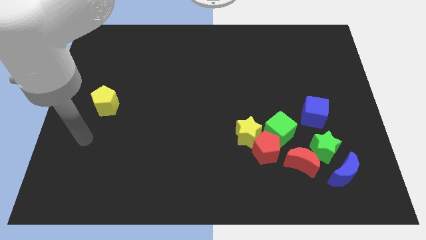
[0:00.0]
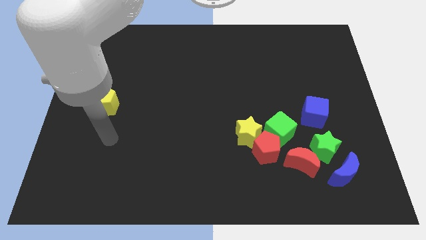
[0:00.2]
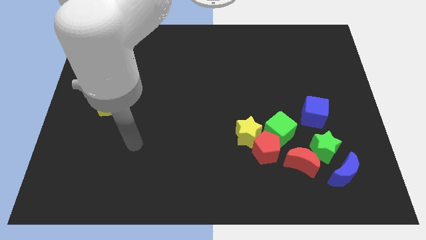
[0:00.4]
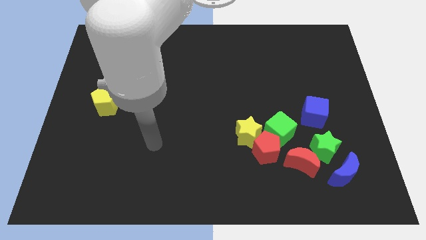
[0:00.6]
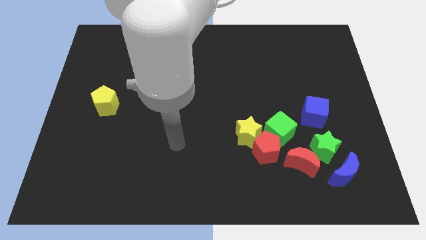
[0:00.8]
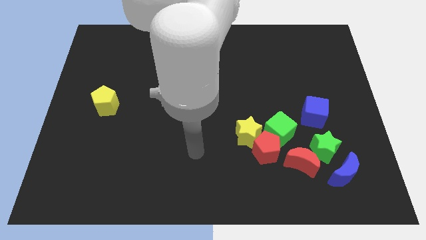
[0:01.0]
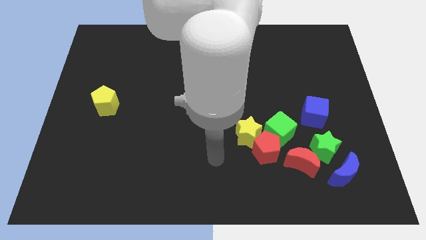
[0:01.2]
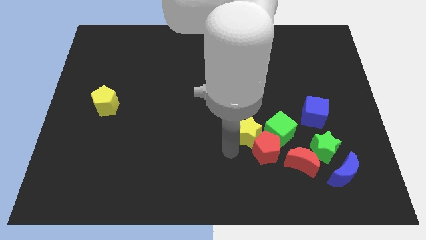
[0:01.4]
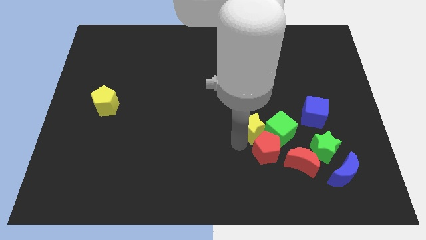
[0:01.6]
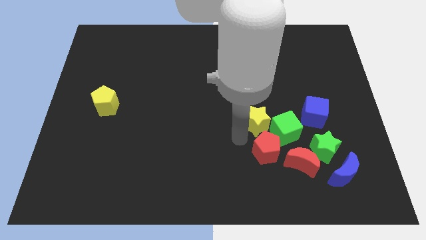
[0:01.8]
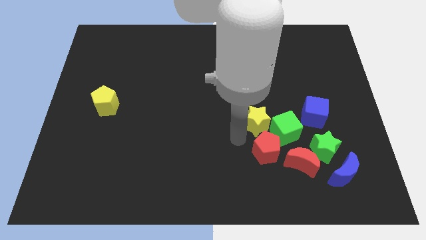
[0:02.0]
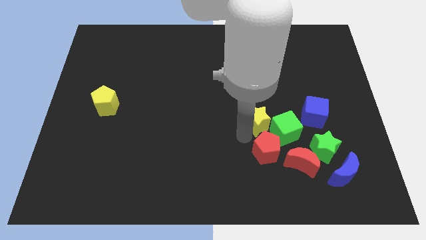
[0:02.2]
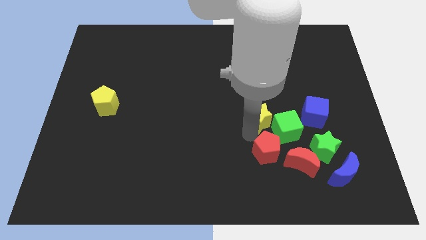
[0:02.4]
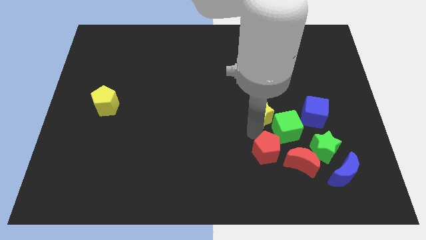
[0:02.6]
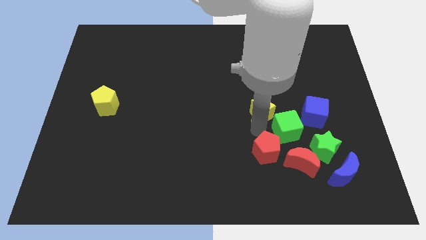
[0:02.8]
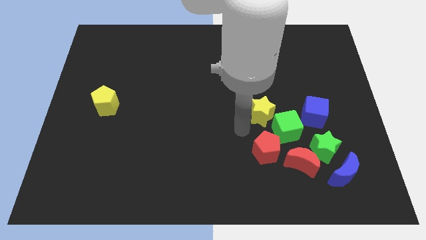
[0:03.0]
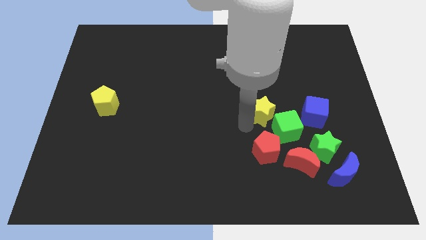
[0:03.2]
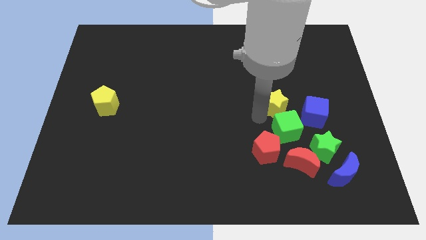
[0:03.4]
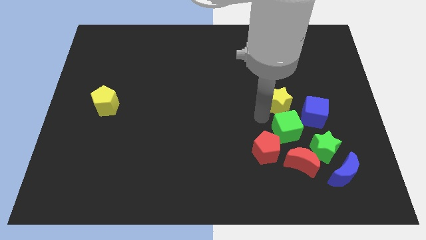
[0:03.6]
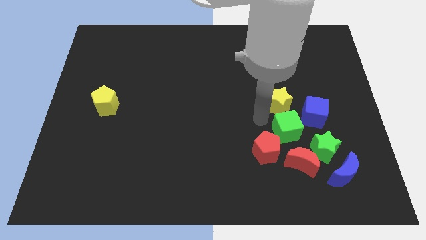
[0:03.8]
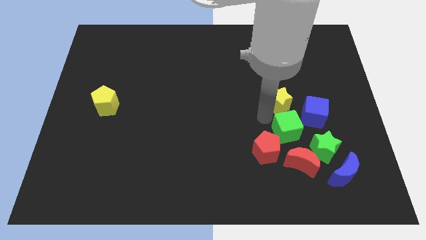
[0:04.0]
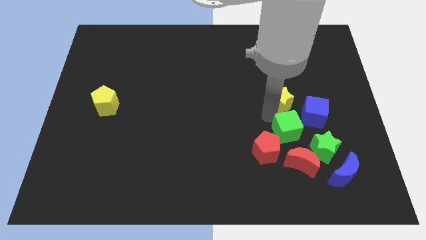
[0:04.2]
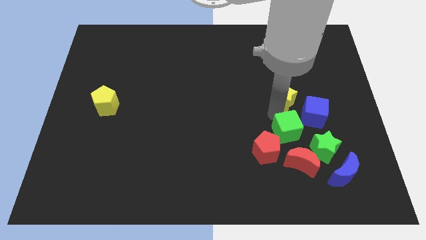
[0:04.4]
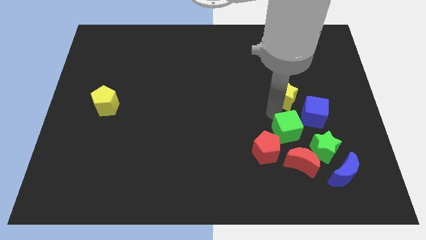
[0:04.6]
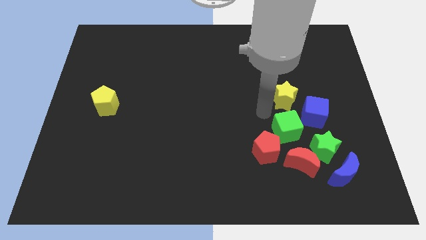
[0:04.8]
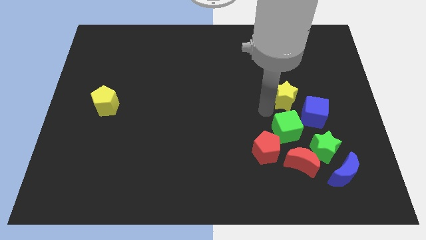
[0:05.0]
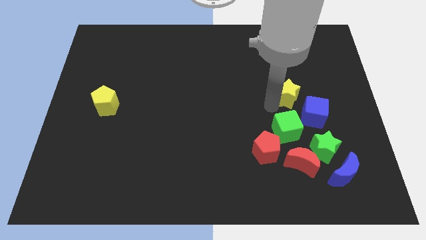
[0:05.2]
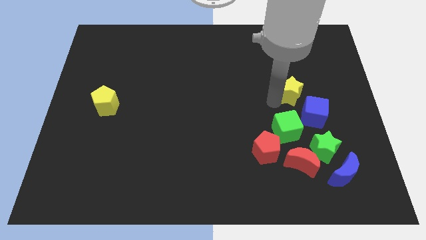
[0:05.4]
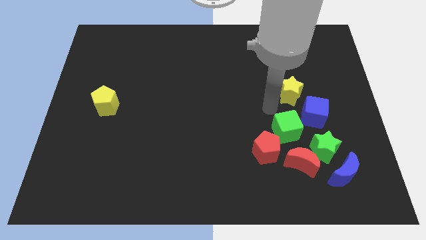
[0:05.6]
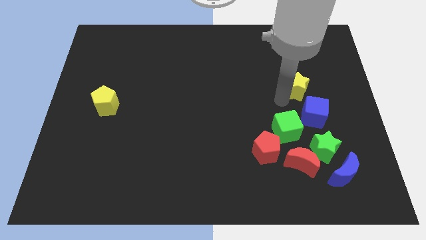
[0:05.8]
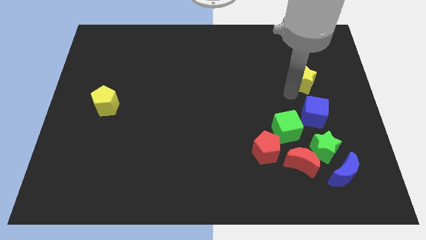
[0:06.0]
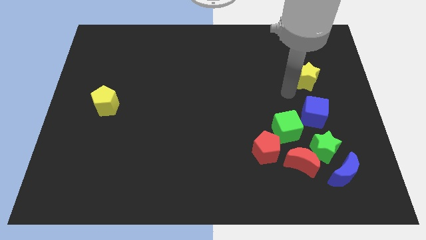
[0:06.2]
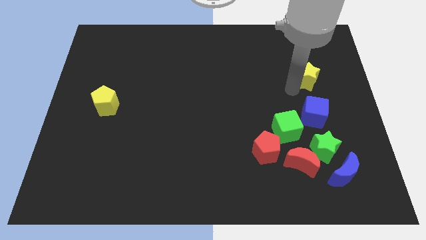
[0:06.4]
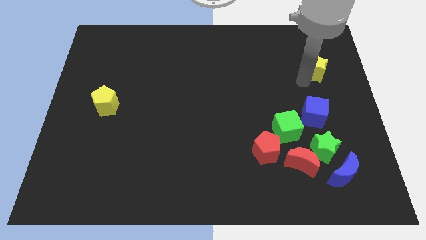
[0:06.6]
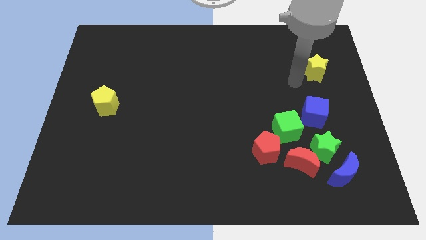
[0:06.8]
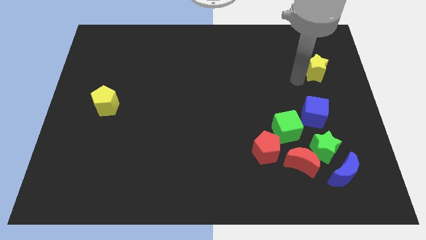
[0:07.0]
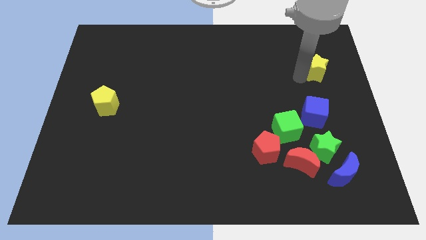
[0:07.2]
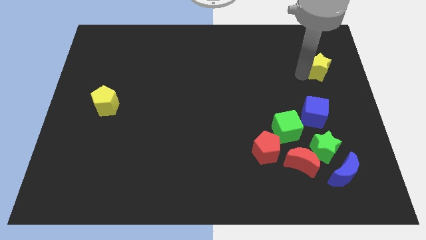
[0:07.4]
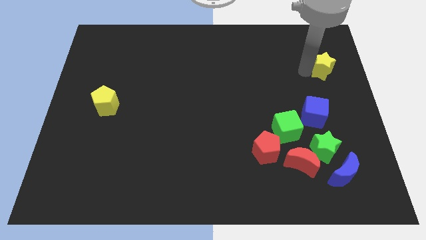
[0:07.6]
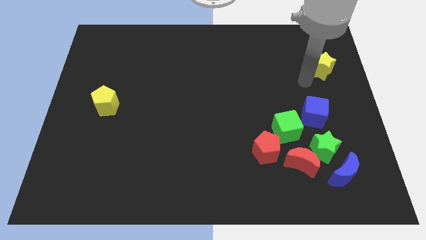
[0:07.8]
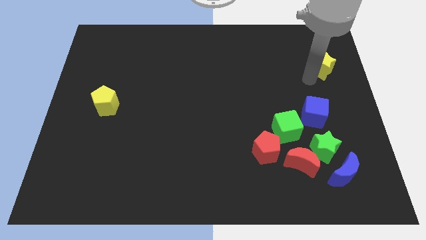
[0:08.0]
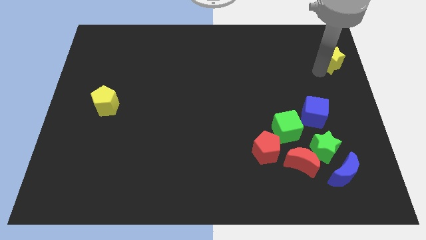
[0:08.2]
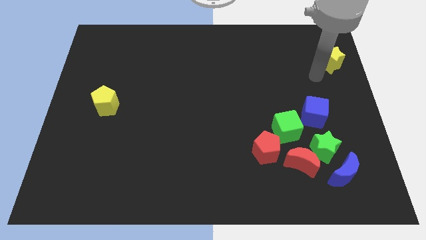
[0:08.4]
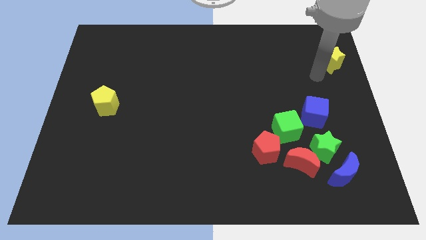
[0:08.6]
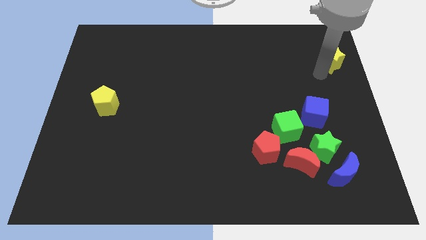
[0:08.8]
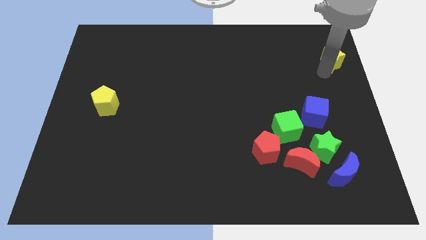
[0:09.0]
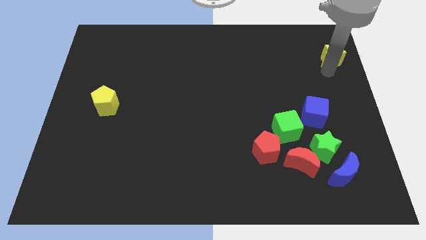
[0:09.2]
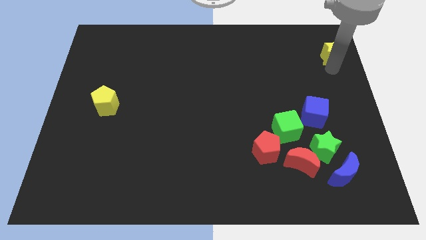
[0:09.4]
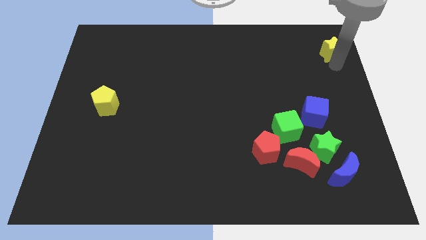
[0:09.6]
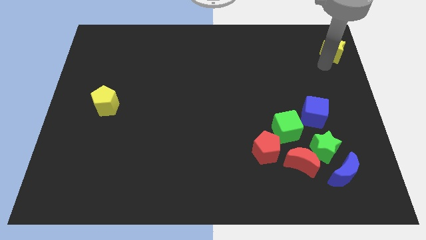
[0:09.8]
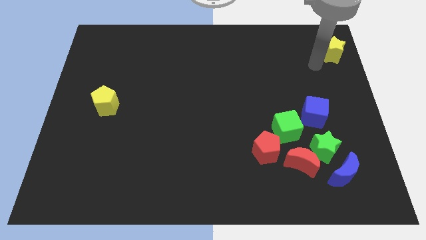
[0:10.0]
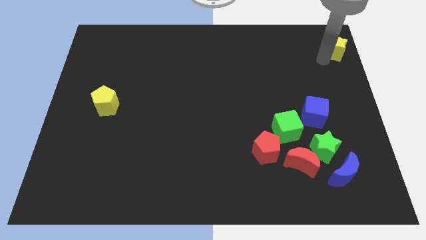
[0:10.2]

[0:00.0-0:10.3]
move the yellow star to the top right corner

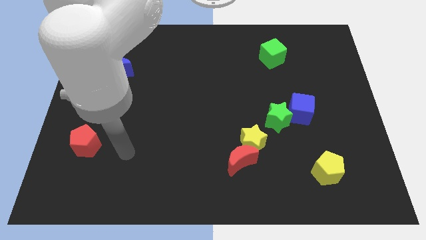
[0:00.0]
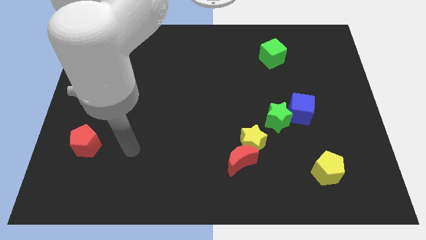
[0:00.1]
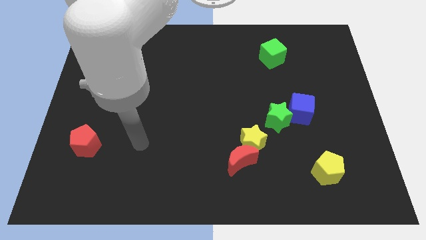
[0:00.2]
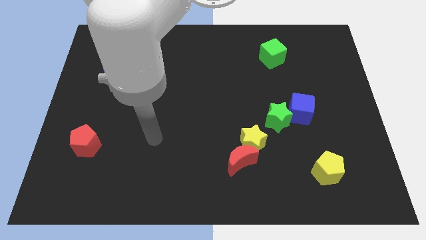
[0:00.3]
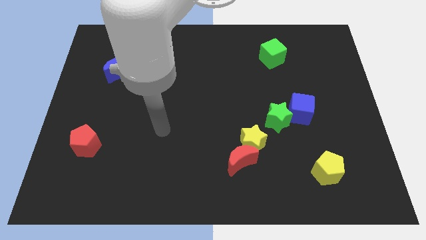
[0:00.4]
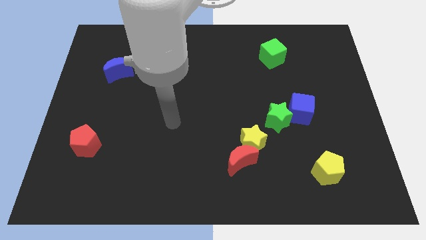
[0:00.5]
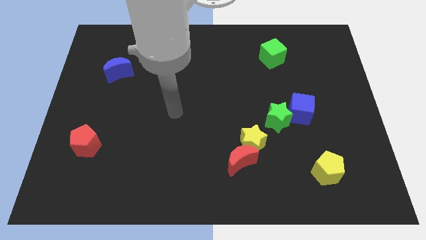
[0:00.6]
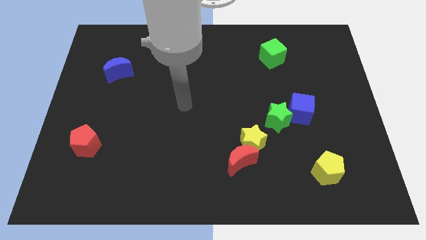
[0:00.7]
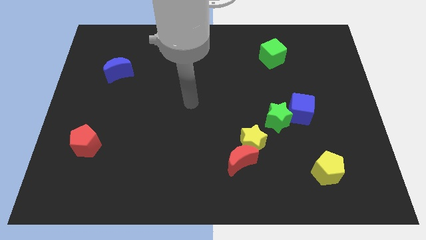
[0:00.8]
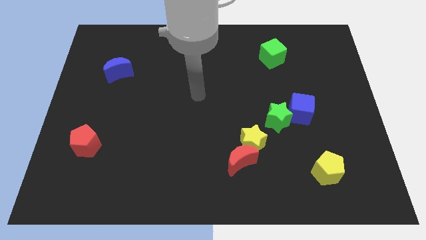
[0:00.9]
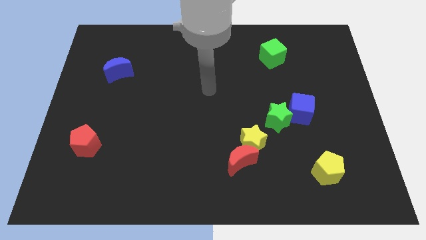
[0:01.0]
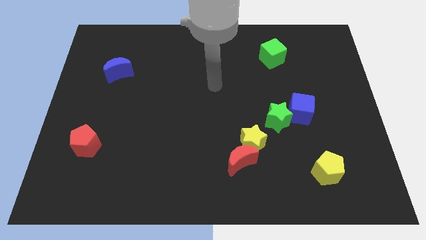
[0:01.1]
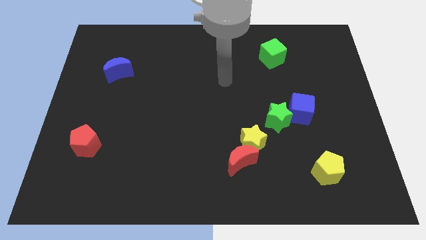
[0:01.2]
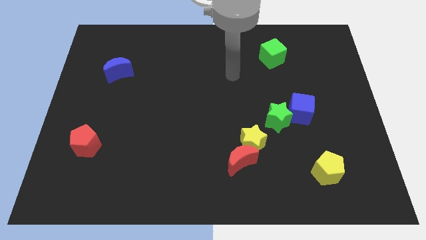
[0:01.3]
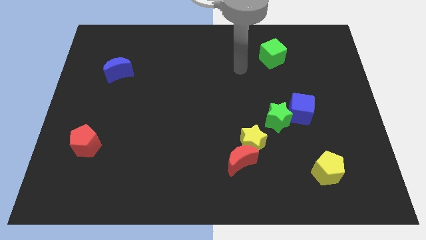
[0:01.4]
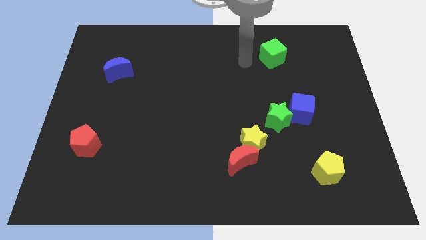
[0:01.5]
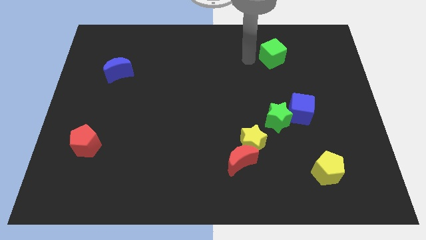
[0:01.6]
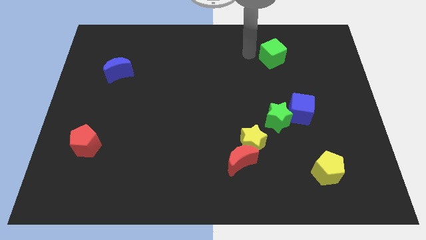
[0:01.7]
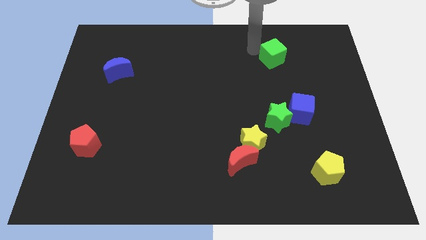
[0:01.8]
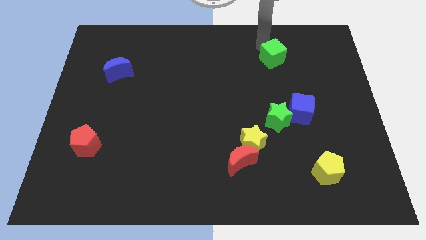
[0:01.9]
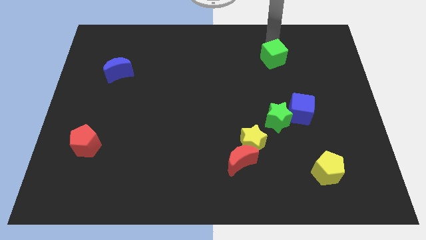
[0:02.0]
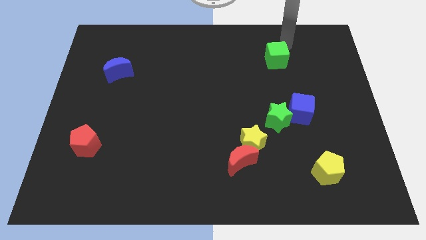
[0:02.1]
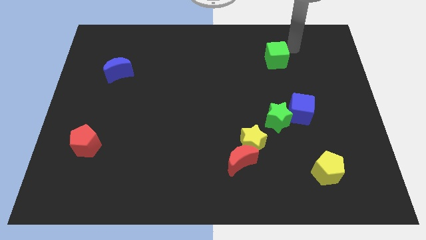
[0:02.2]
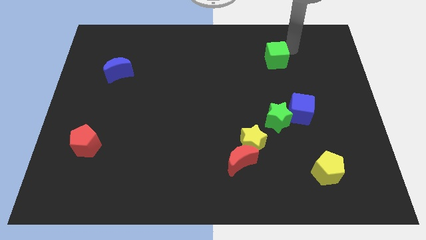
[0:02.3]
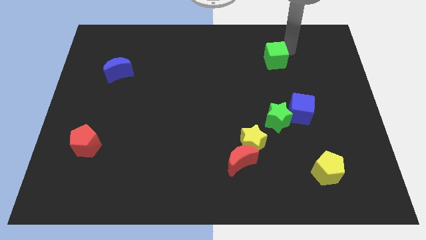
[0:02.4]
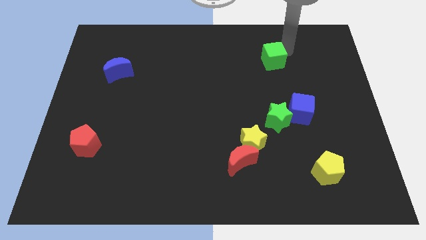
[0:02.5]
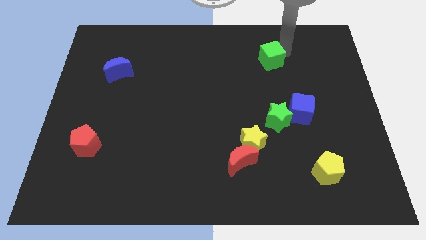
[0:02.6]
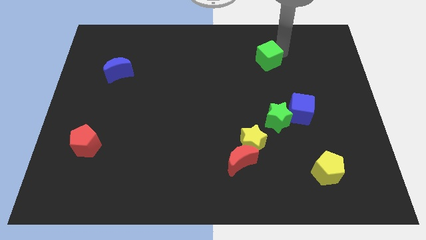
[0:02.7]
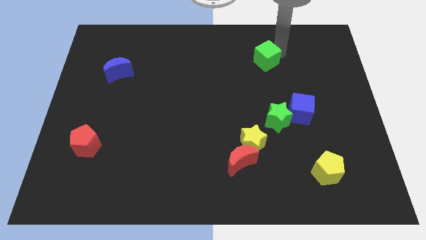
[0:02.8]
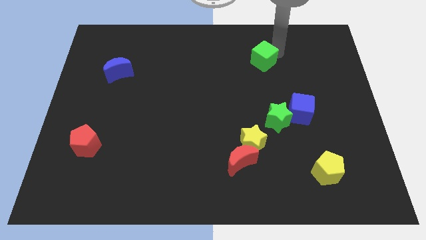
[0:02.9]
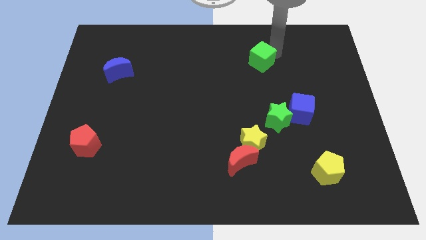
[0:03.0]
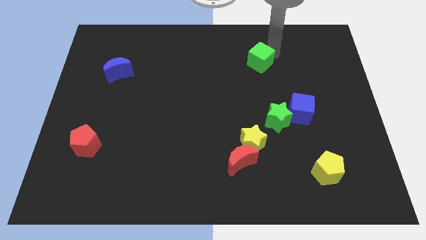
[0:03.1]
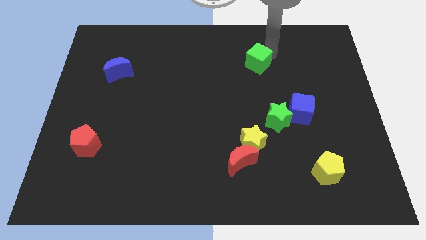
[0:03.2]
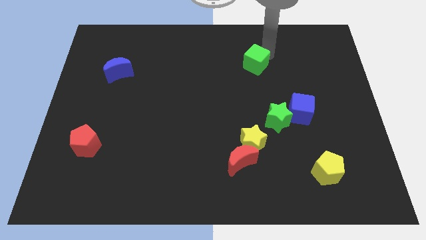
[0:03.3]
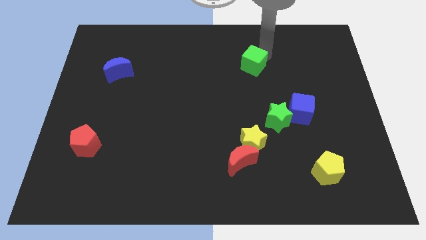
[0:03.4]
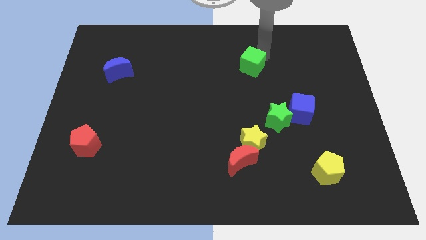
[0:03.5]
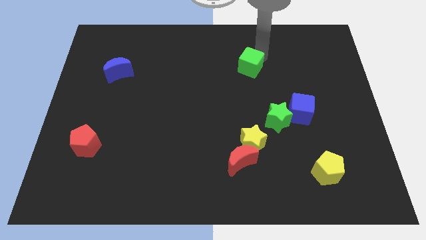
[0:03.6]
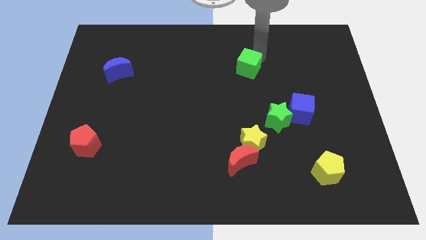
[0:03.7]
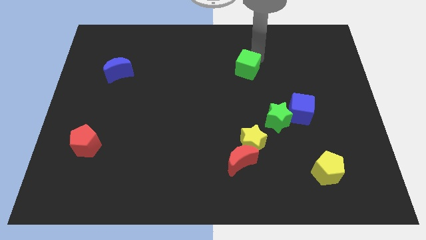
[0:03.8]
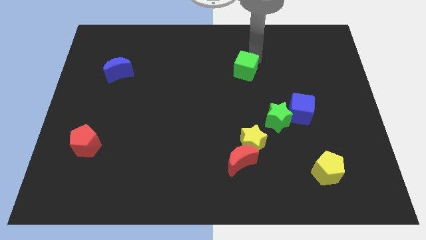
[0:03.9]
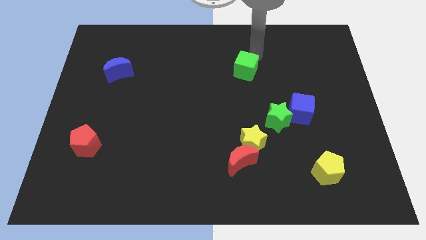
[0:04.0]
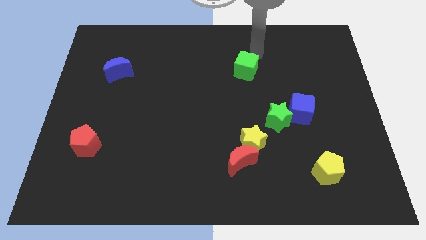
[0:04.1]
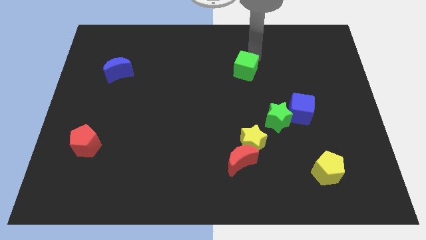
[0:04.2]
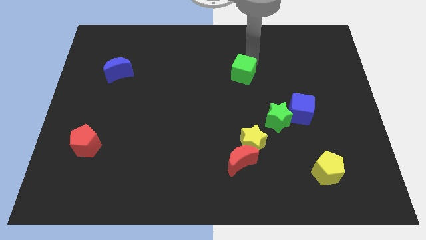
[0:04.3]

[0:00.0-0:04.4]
put the green cube to the middle
